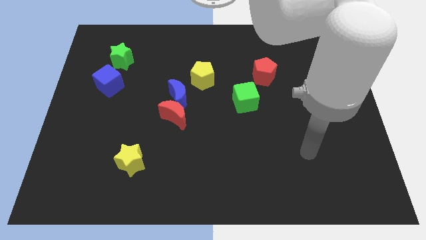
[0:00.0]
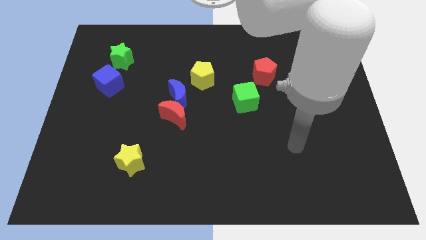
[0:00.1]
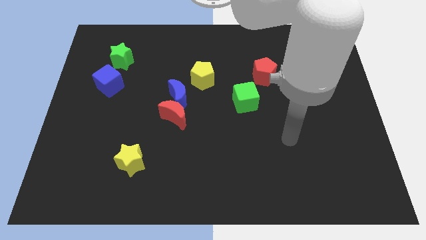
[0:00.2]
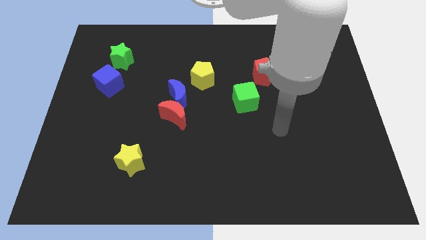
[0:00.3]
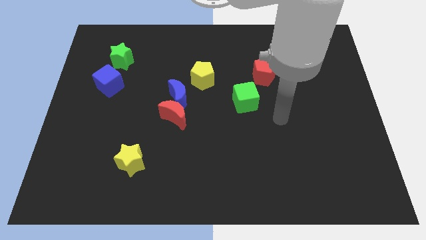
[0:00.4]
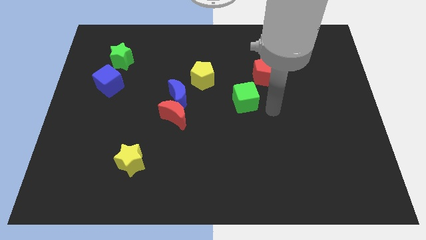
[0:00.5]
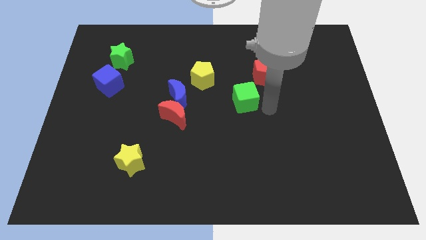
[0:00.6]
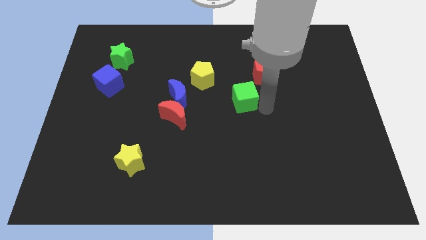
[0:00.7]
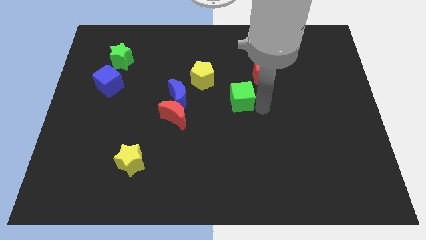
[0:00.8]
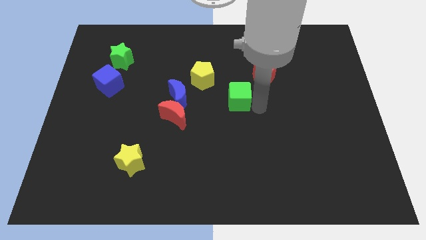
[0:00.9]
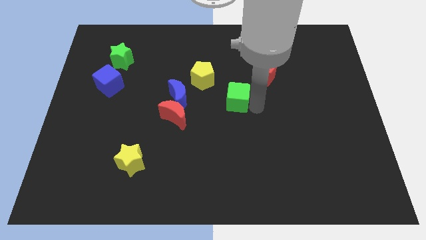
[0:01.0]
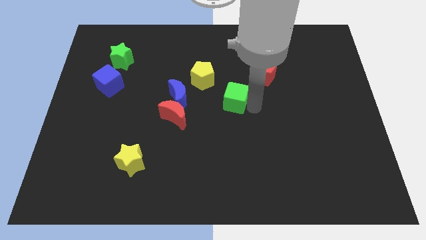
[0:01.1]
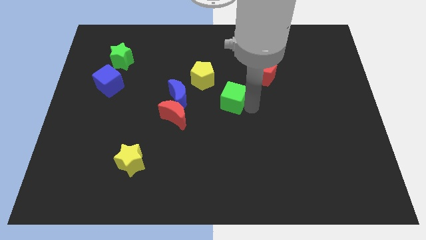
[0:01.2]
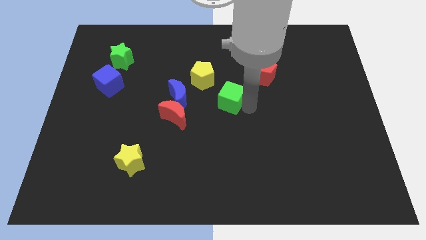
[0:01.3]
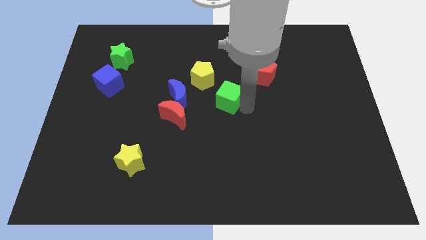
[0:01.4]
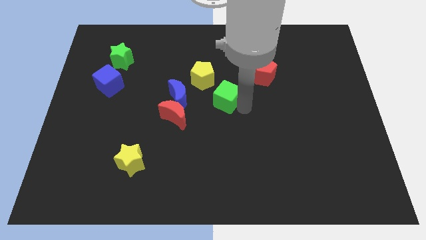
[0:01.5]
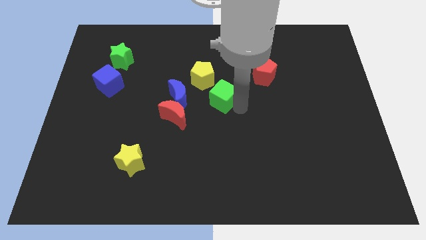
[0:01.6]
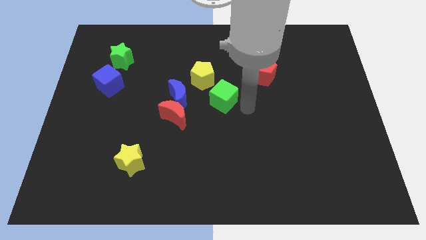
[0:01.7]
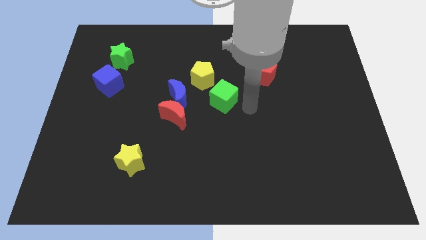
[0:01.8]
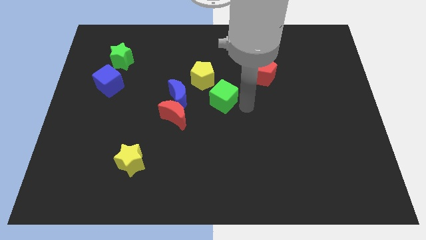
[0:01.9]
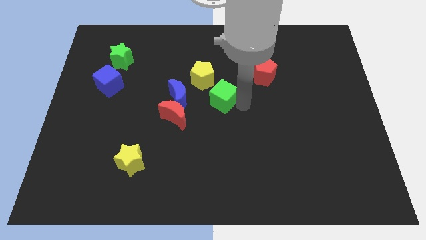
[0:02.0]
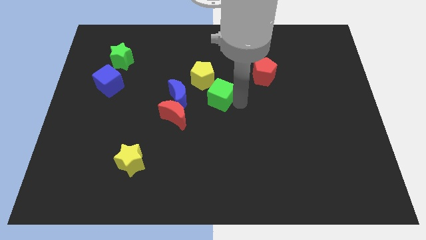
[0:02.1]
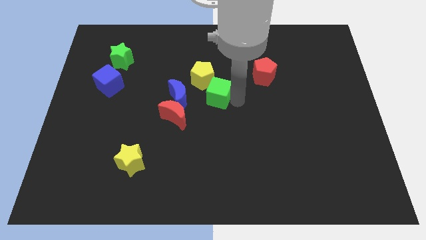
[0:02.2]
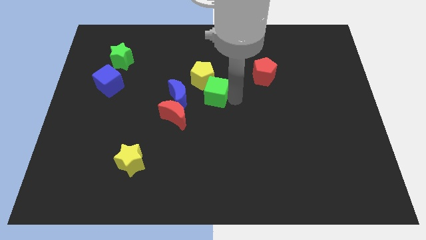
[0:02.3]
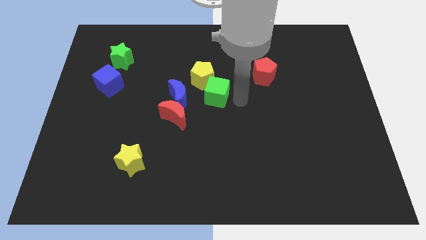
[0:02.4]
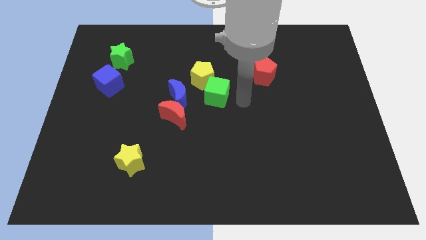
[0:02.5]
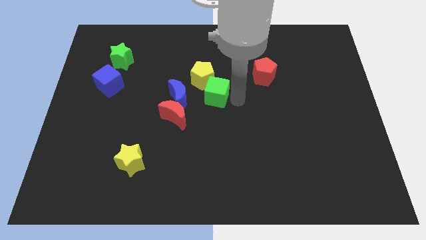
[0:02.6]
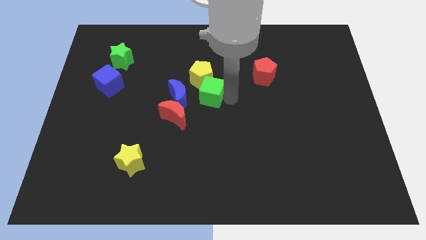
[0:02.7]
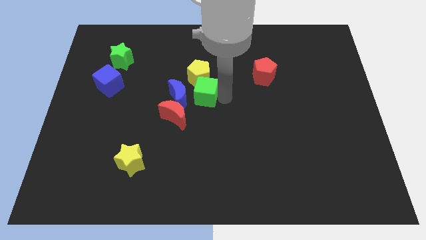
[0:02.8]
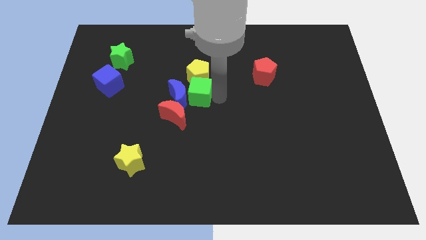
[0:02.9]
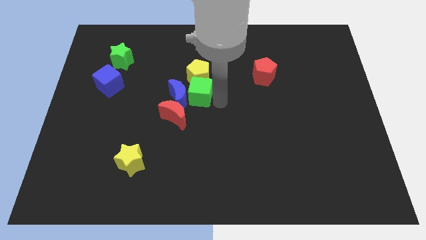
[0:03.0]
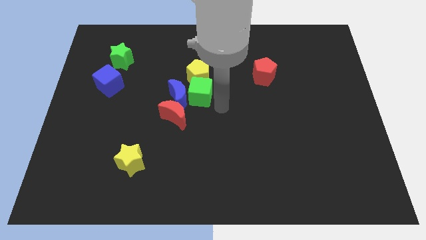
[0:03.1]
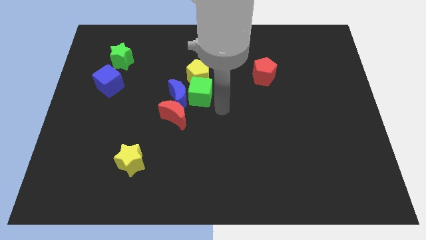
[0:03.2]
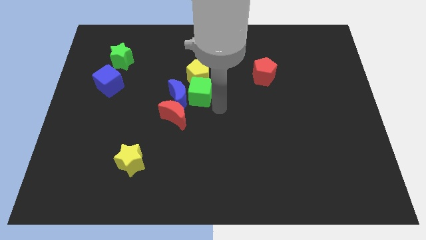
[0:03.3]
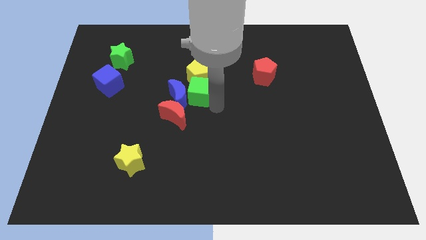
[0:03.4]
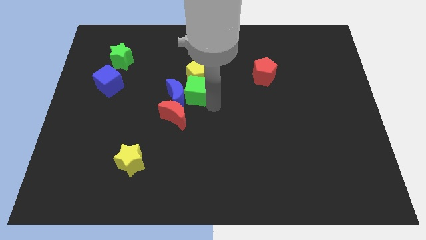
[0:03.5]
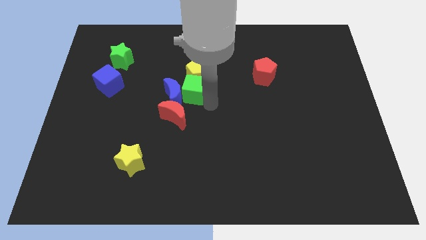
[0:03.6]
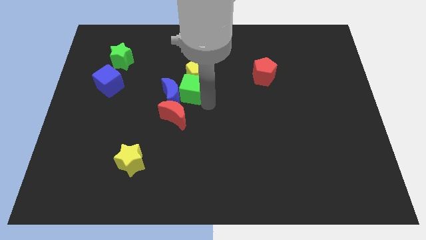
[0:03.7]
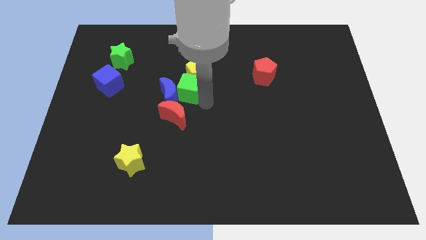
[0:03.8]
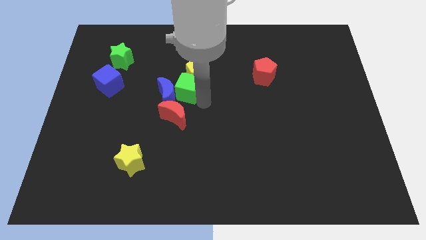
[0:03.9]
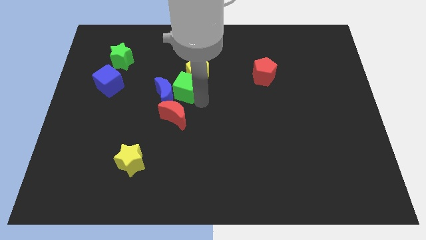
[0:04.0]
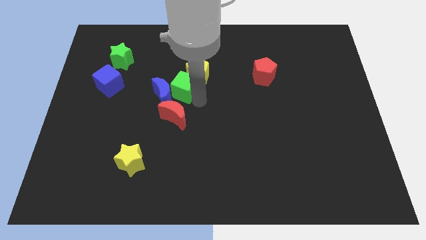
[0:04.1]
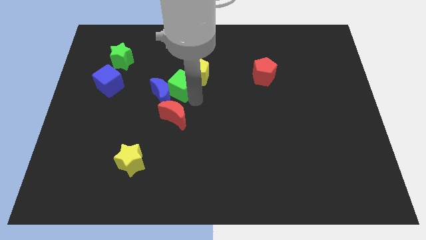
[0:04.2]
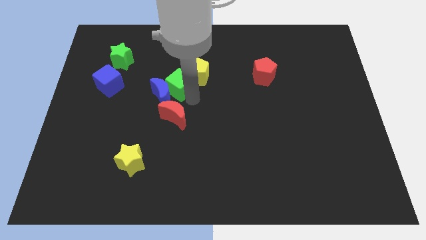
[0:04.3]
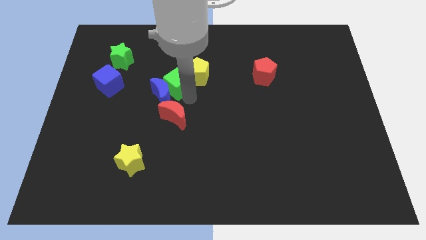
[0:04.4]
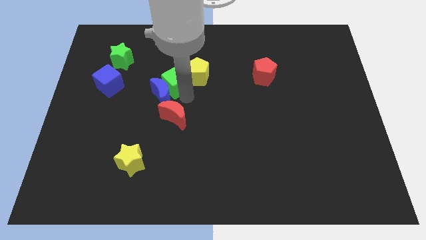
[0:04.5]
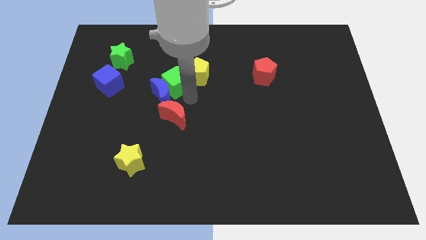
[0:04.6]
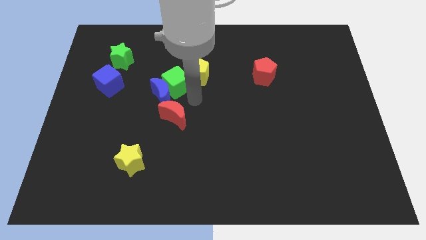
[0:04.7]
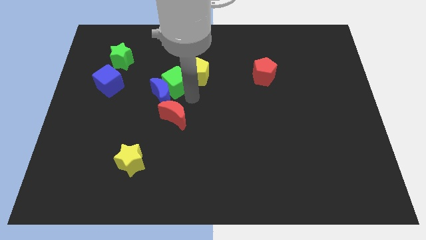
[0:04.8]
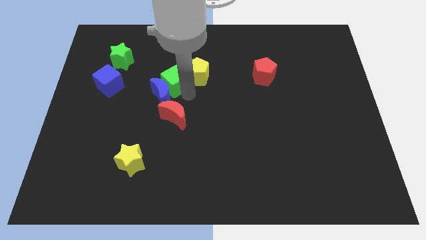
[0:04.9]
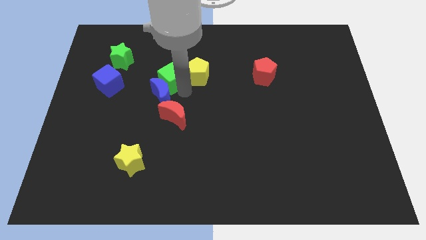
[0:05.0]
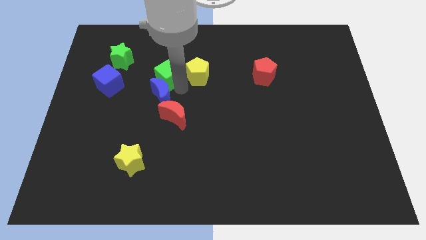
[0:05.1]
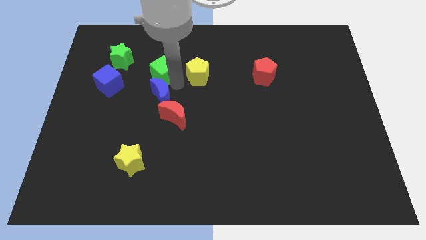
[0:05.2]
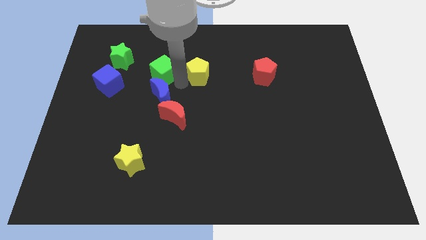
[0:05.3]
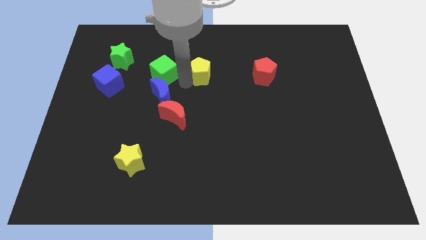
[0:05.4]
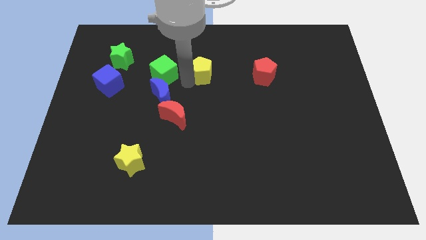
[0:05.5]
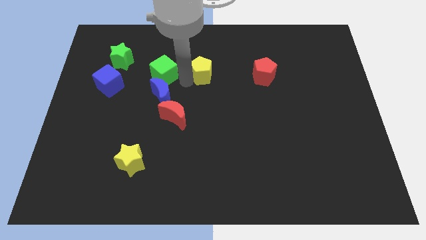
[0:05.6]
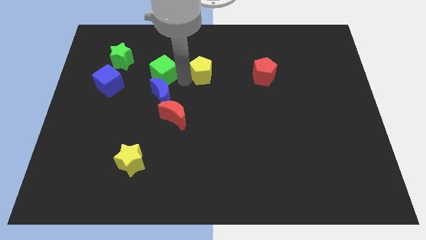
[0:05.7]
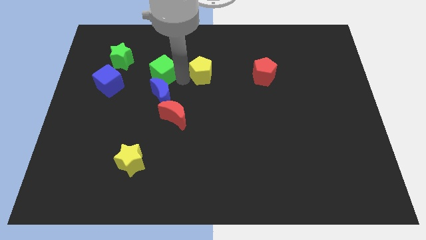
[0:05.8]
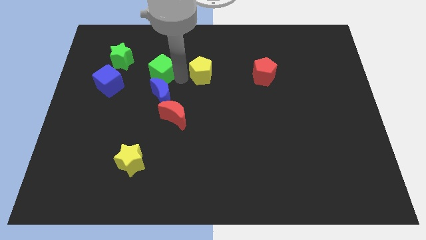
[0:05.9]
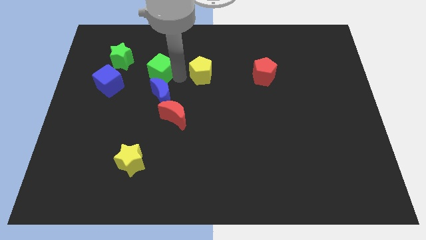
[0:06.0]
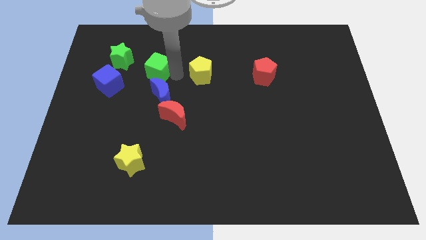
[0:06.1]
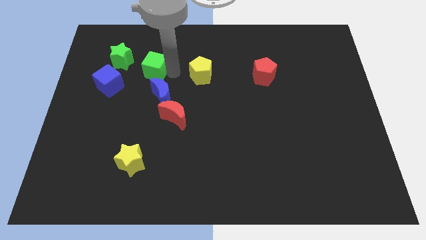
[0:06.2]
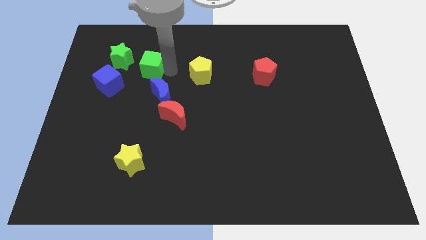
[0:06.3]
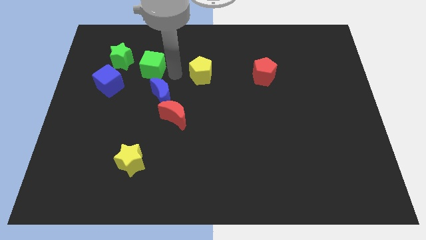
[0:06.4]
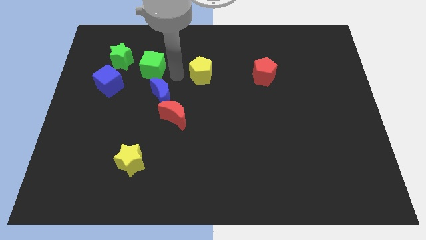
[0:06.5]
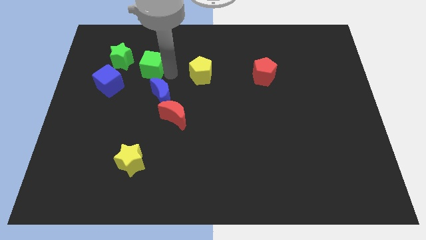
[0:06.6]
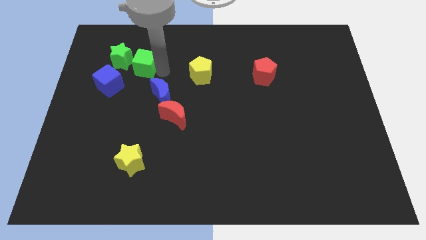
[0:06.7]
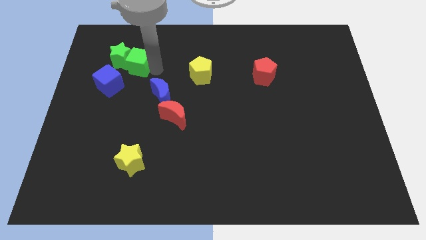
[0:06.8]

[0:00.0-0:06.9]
slide the green cube next to the green star
